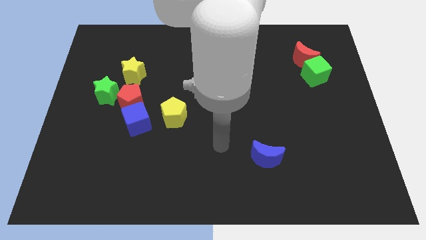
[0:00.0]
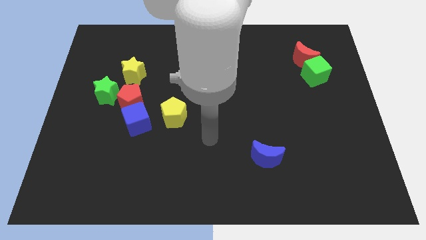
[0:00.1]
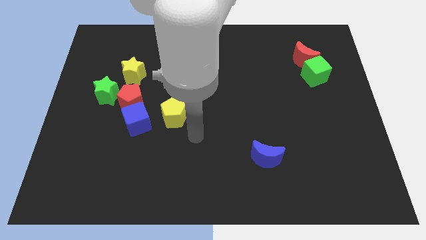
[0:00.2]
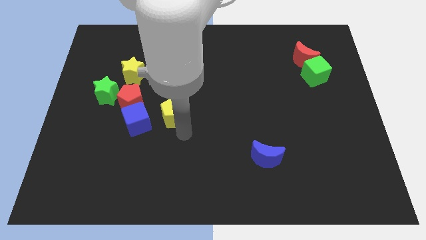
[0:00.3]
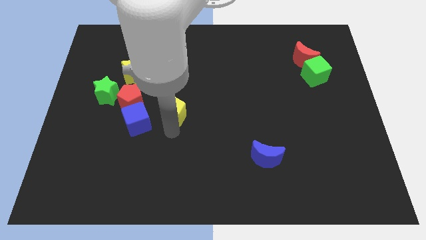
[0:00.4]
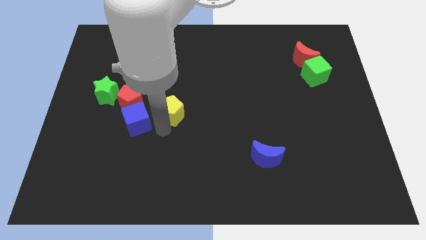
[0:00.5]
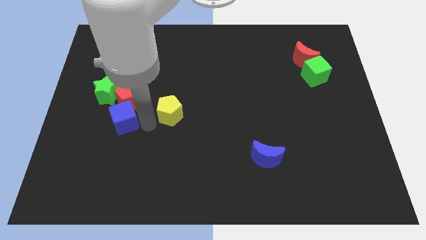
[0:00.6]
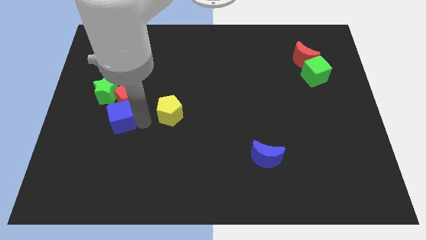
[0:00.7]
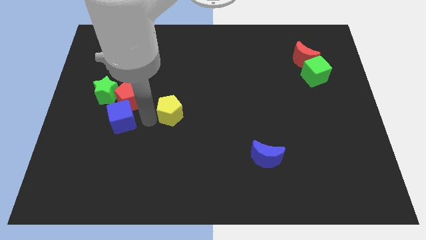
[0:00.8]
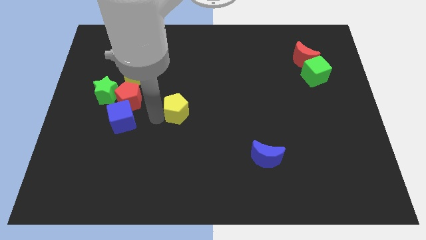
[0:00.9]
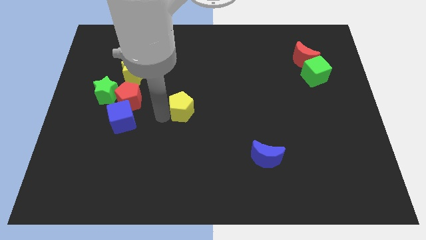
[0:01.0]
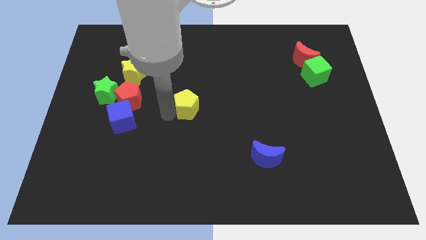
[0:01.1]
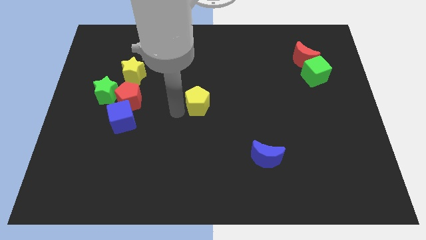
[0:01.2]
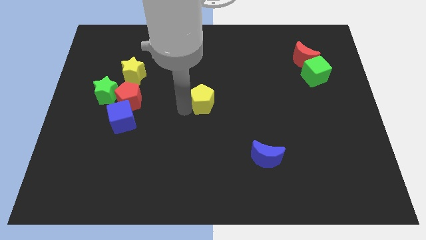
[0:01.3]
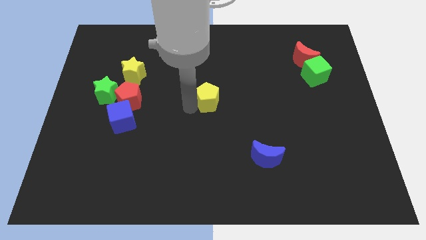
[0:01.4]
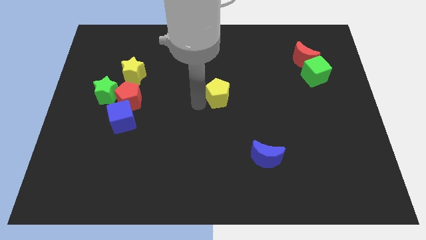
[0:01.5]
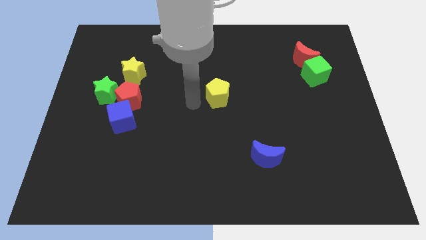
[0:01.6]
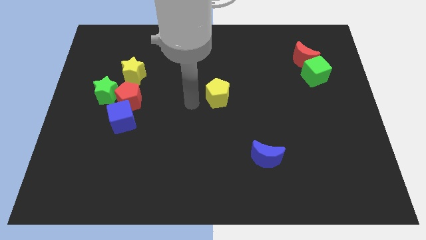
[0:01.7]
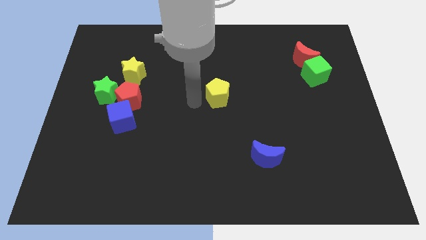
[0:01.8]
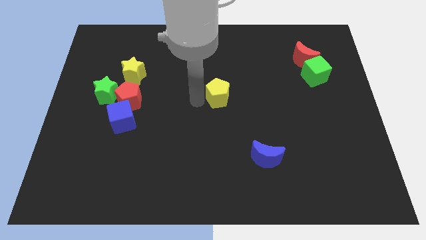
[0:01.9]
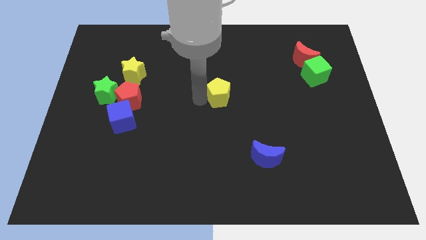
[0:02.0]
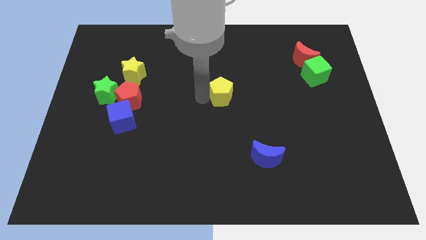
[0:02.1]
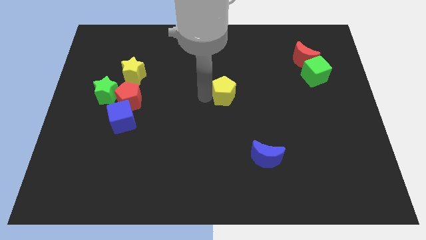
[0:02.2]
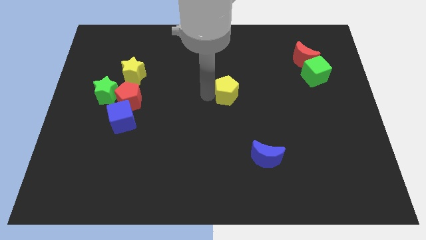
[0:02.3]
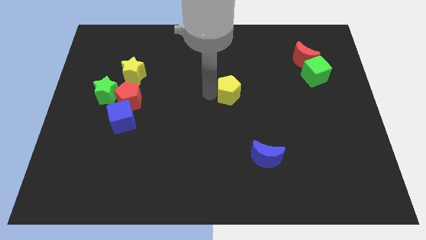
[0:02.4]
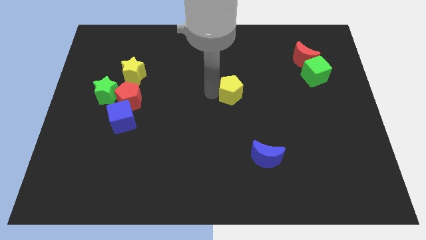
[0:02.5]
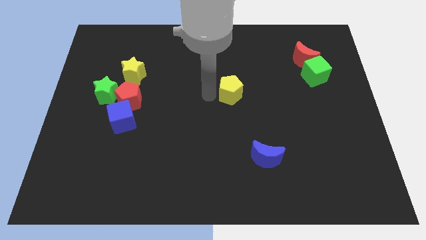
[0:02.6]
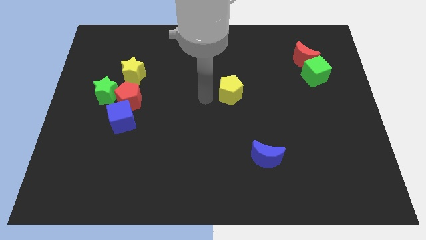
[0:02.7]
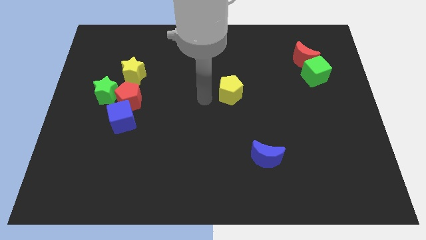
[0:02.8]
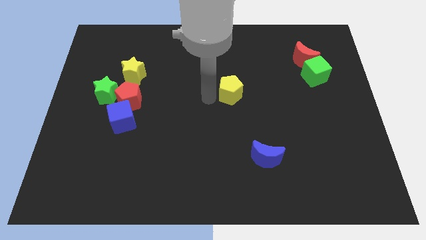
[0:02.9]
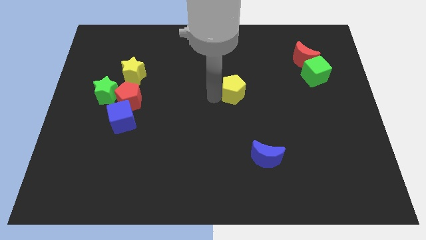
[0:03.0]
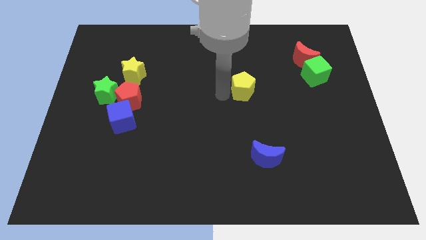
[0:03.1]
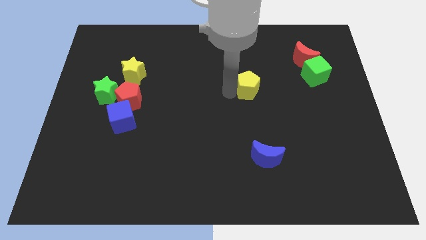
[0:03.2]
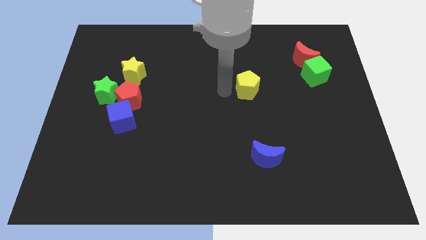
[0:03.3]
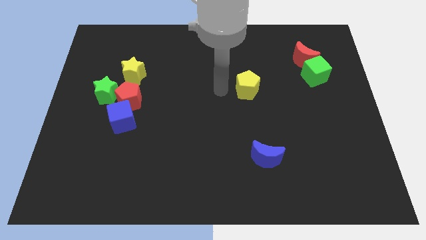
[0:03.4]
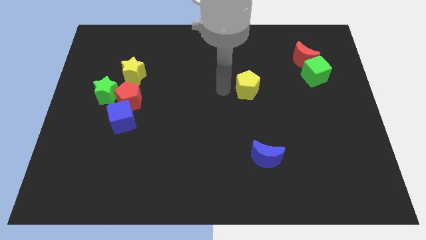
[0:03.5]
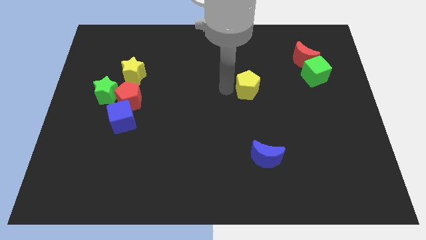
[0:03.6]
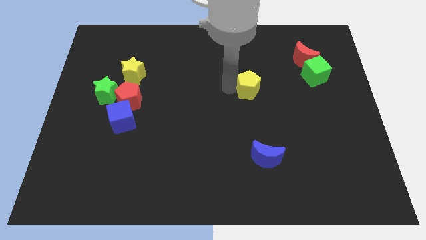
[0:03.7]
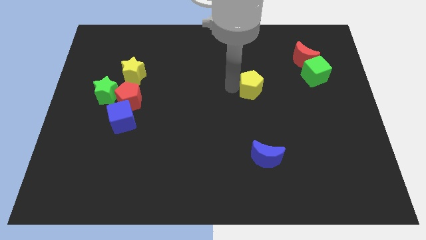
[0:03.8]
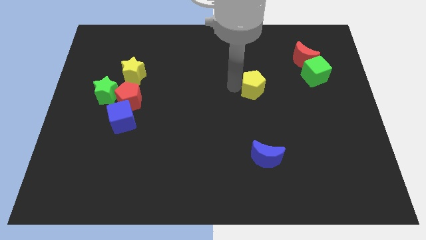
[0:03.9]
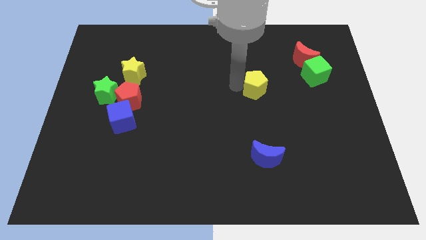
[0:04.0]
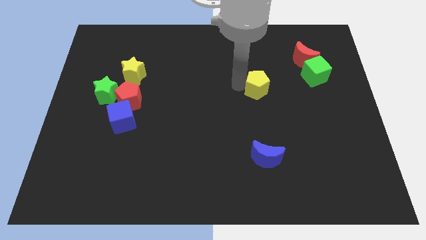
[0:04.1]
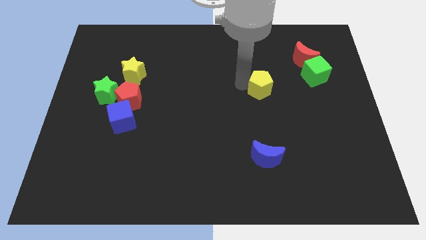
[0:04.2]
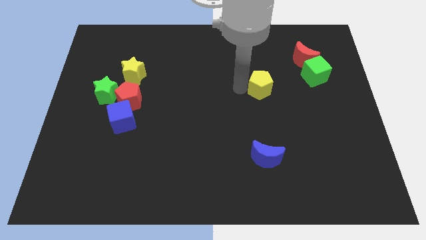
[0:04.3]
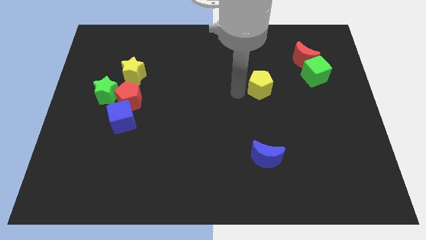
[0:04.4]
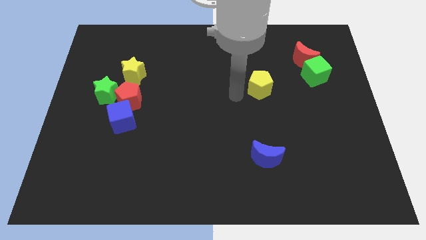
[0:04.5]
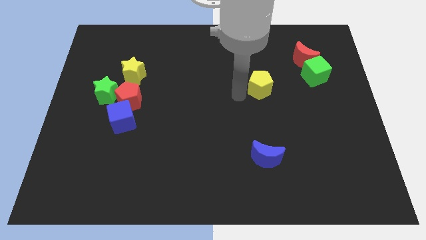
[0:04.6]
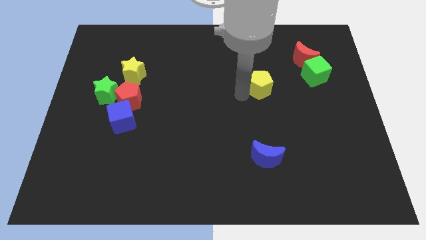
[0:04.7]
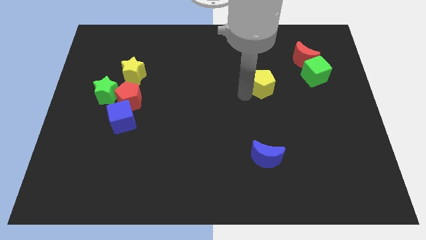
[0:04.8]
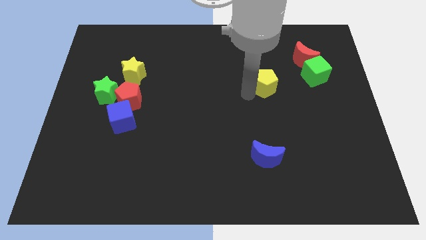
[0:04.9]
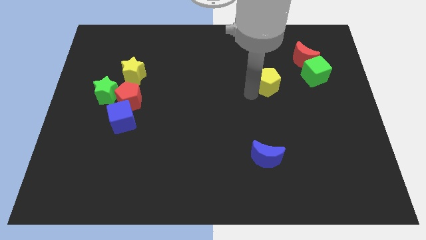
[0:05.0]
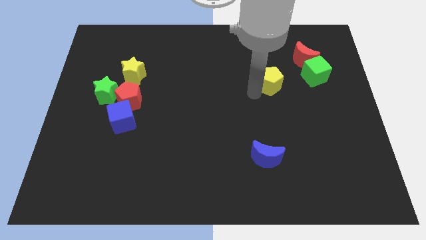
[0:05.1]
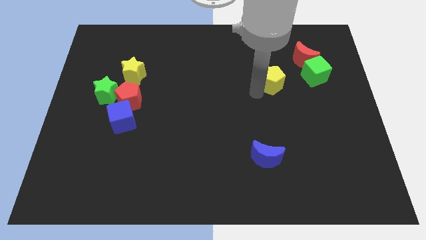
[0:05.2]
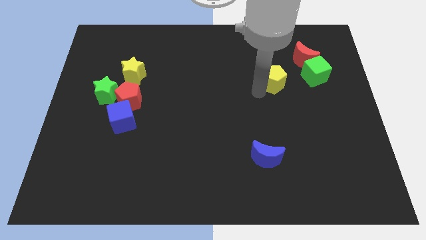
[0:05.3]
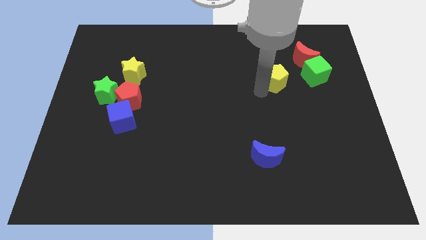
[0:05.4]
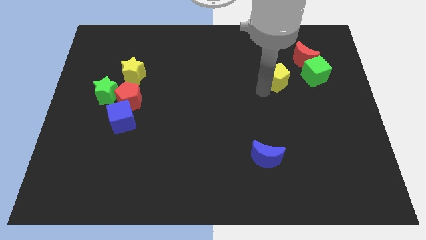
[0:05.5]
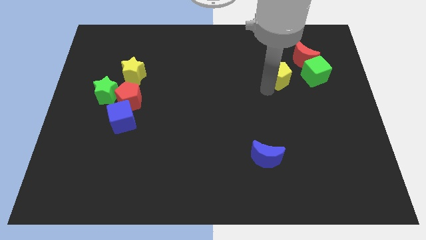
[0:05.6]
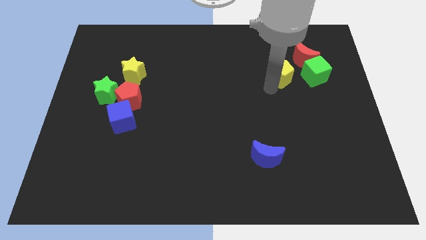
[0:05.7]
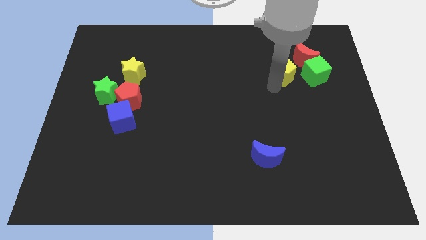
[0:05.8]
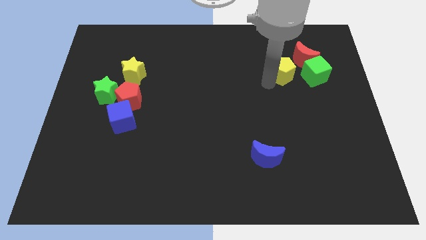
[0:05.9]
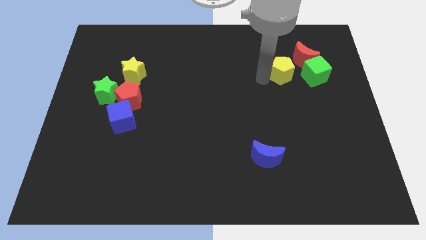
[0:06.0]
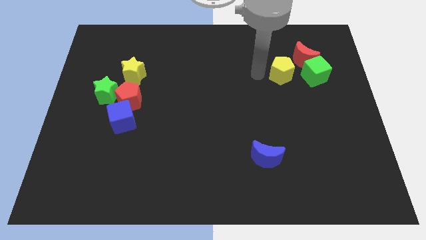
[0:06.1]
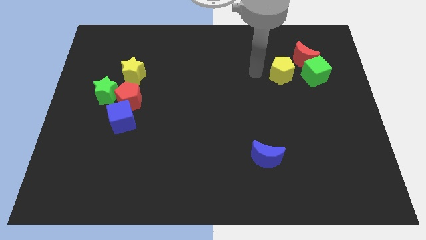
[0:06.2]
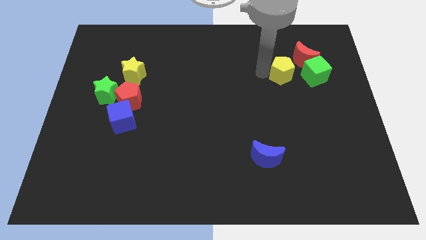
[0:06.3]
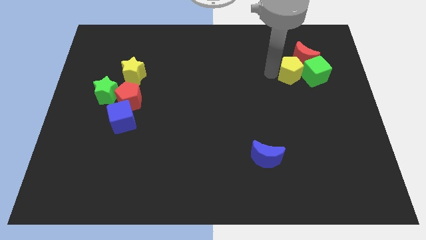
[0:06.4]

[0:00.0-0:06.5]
push the yellow pentagon towards the green cube
